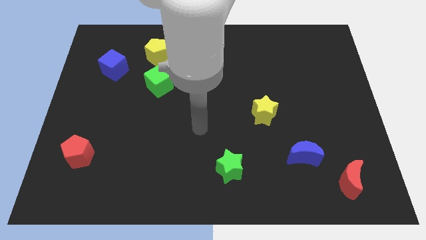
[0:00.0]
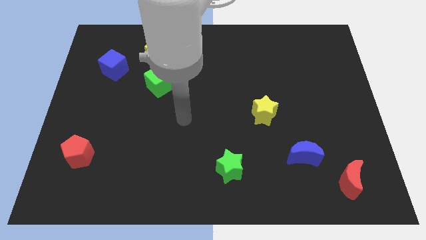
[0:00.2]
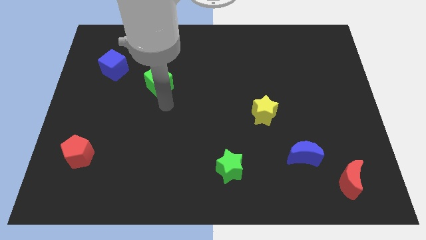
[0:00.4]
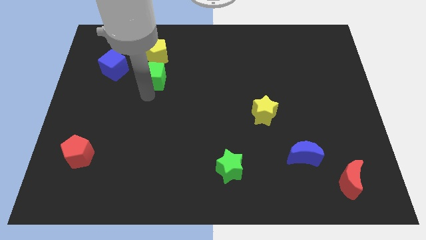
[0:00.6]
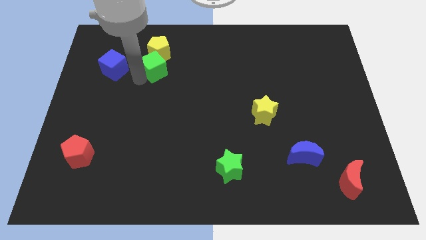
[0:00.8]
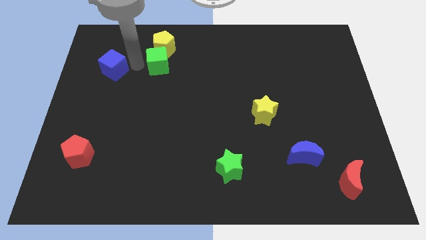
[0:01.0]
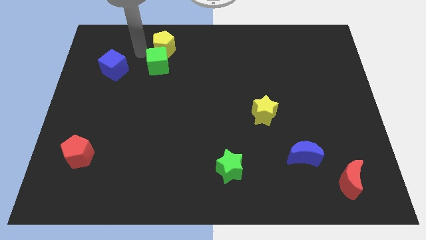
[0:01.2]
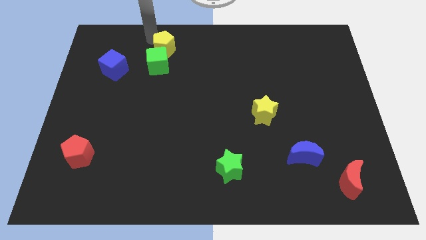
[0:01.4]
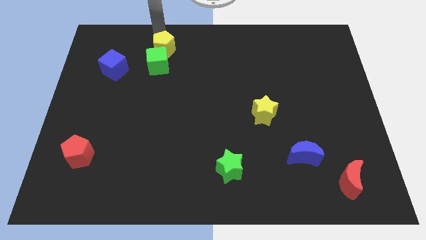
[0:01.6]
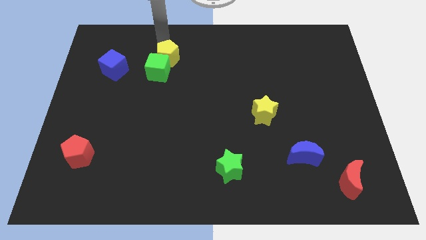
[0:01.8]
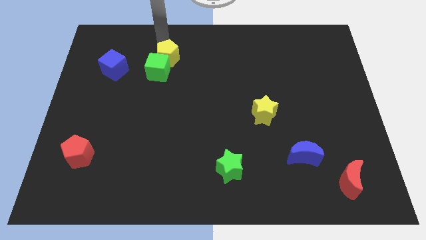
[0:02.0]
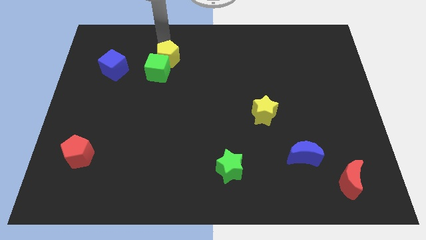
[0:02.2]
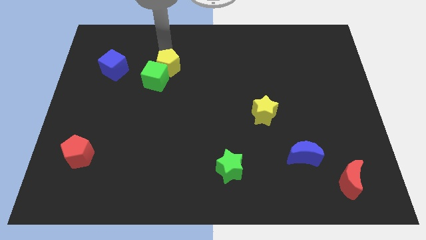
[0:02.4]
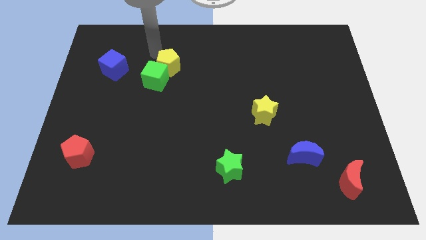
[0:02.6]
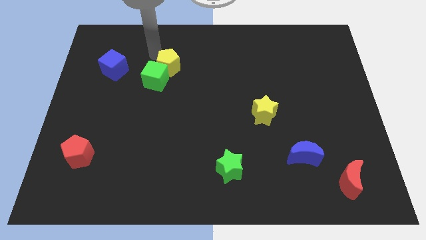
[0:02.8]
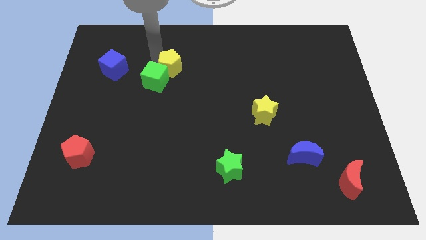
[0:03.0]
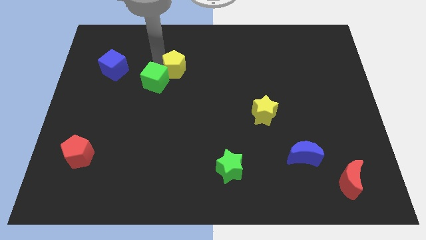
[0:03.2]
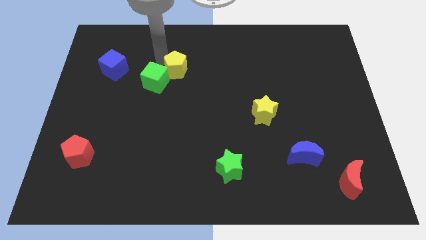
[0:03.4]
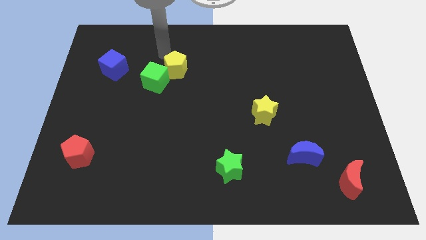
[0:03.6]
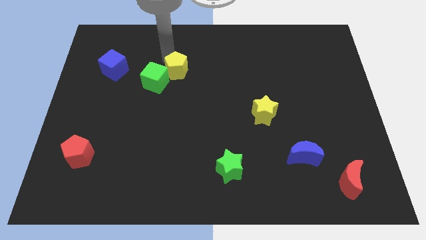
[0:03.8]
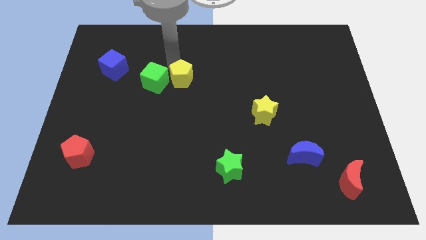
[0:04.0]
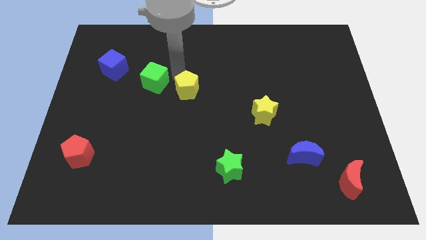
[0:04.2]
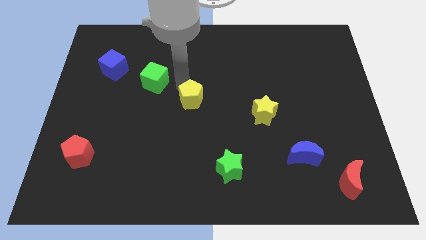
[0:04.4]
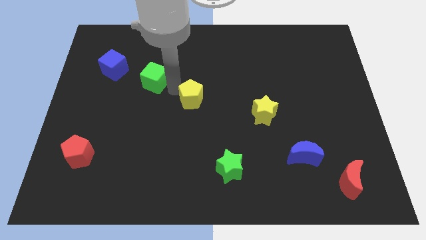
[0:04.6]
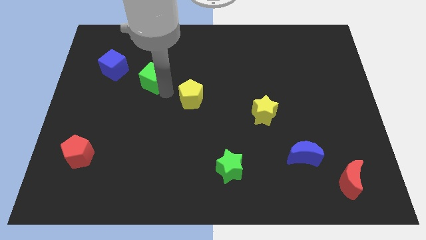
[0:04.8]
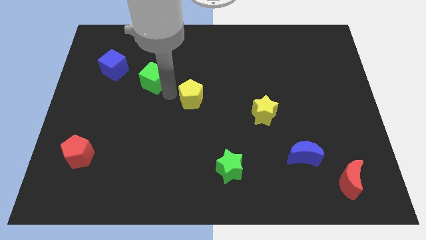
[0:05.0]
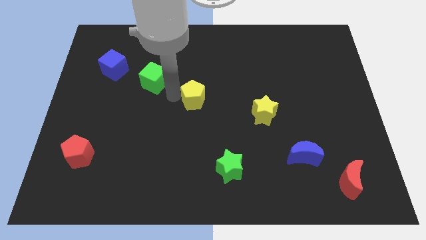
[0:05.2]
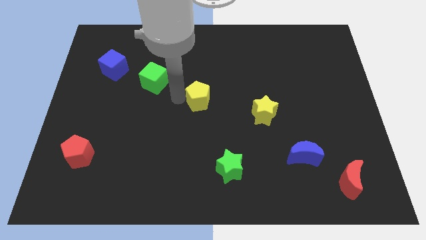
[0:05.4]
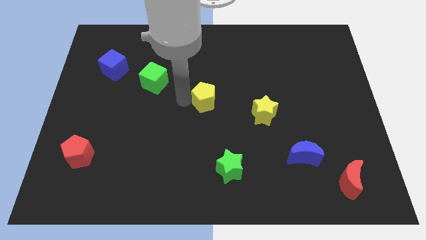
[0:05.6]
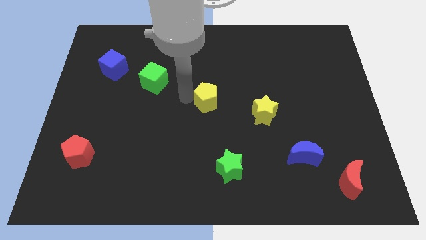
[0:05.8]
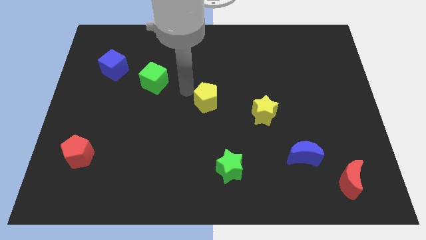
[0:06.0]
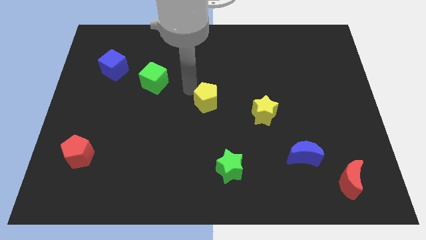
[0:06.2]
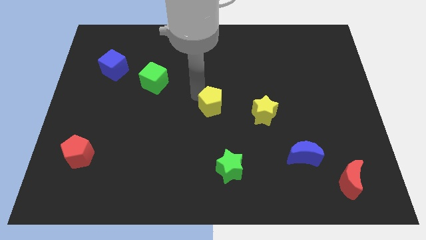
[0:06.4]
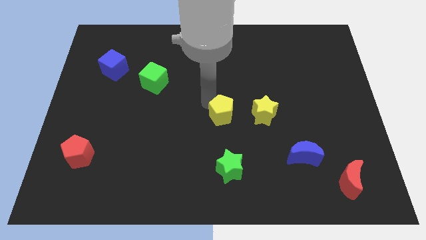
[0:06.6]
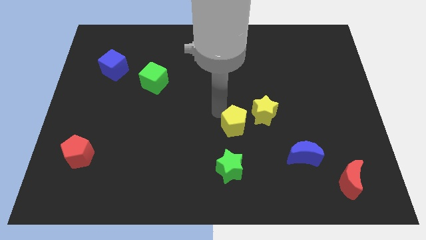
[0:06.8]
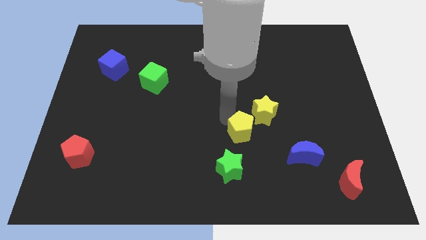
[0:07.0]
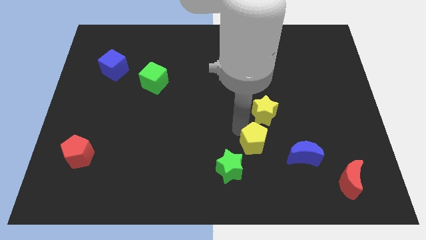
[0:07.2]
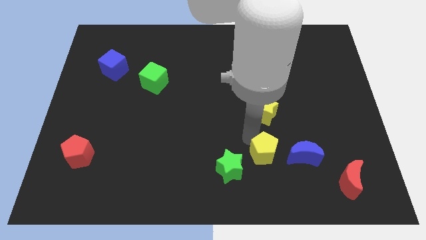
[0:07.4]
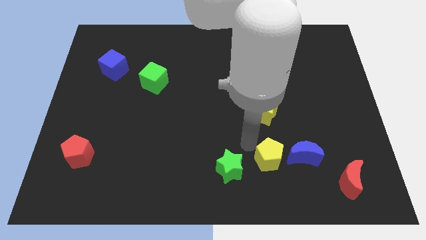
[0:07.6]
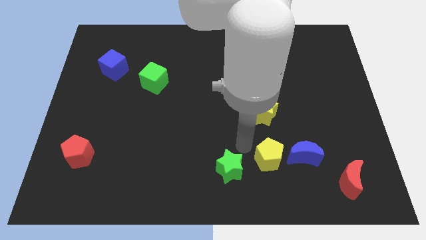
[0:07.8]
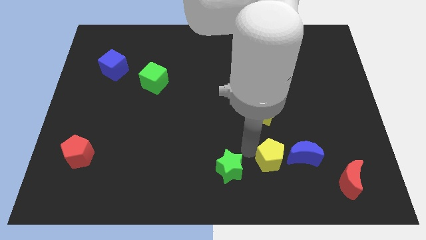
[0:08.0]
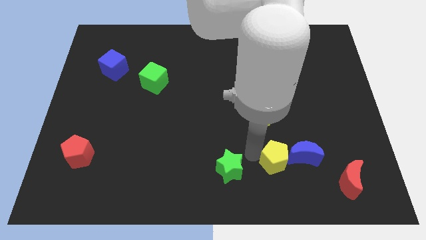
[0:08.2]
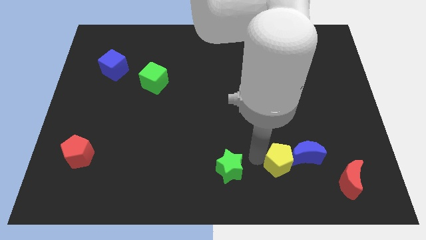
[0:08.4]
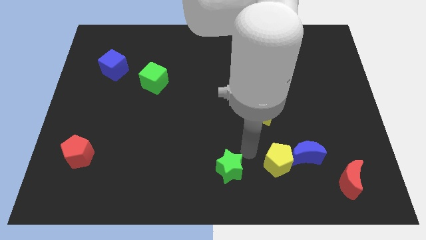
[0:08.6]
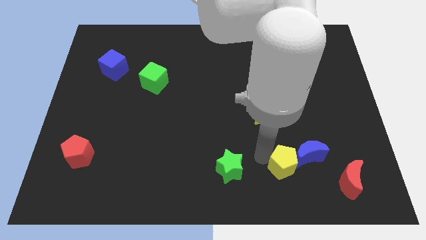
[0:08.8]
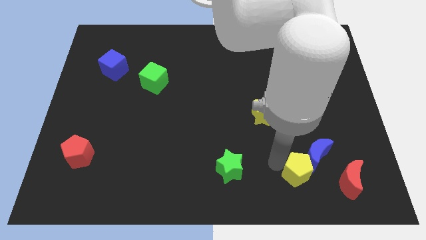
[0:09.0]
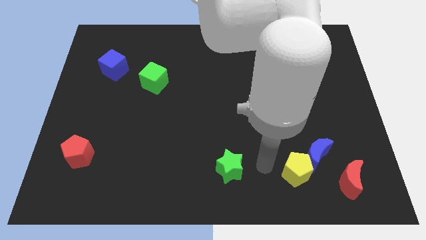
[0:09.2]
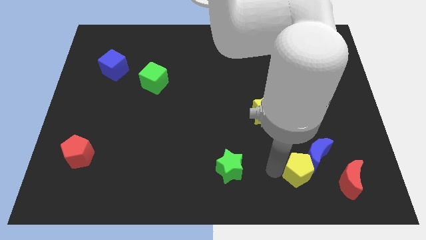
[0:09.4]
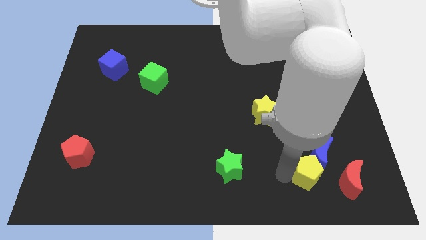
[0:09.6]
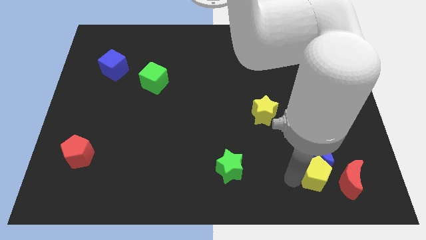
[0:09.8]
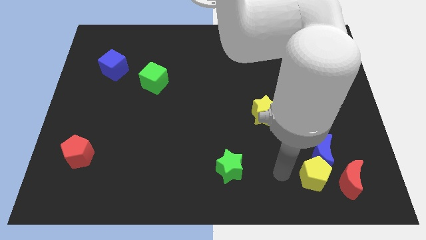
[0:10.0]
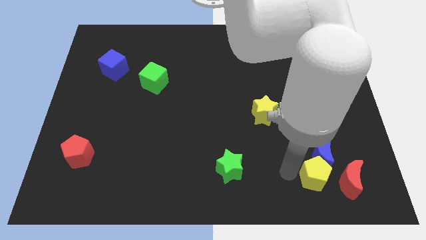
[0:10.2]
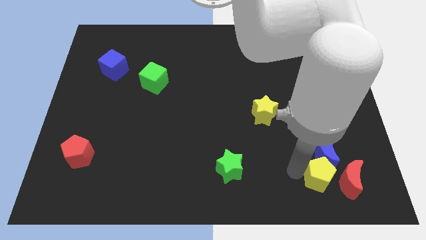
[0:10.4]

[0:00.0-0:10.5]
move the yellow pentagon to the red moon

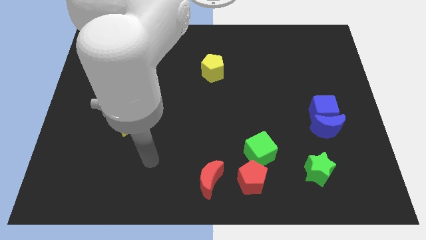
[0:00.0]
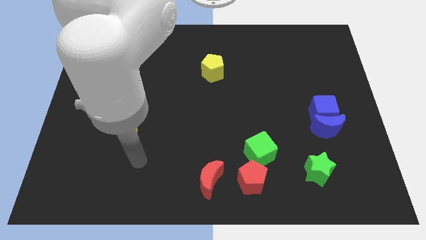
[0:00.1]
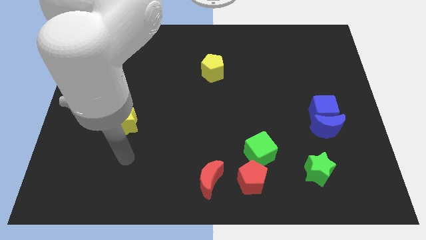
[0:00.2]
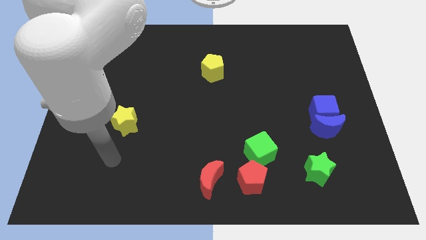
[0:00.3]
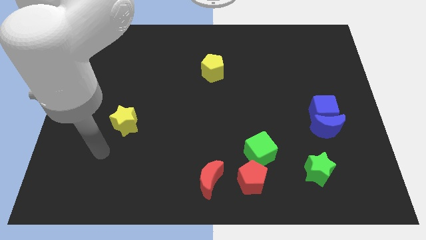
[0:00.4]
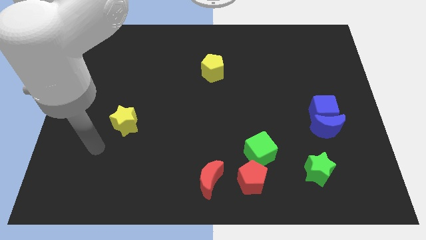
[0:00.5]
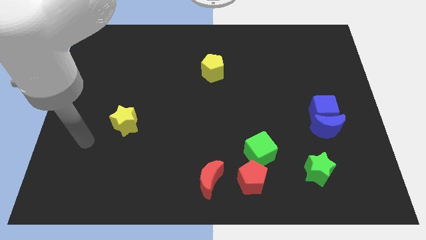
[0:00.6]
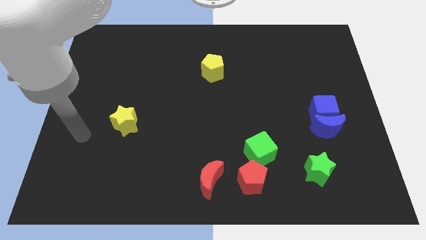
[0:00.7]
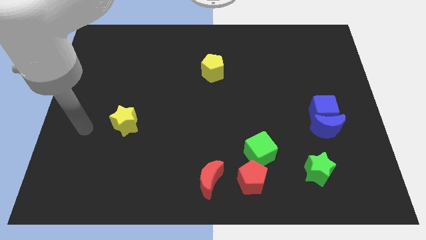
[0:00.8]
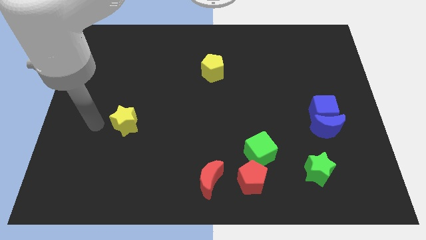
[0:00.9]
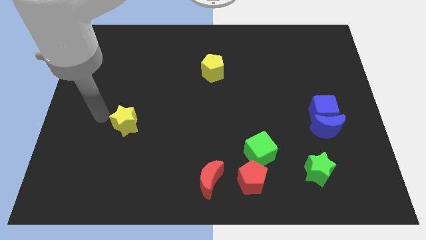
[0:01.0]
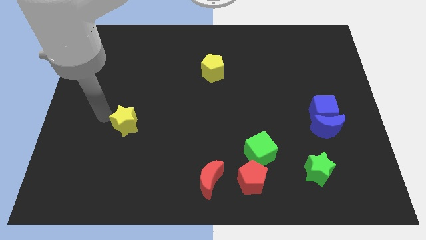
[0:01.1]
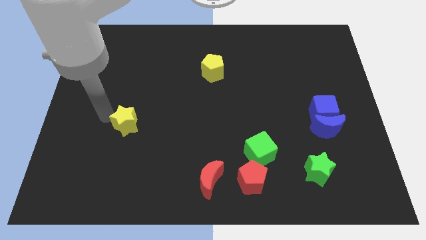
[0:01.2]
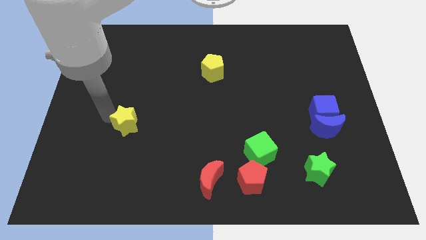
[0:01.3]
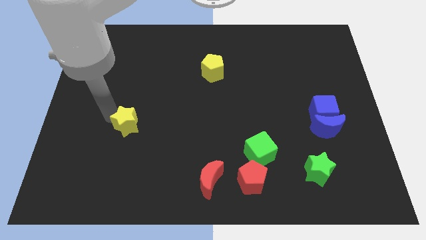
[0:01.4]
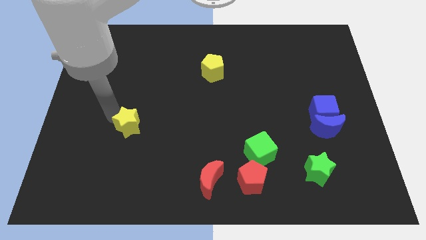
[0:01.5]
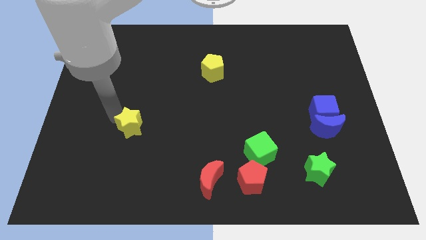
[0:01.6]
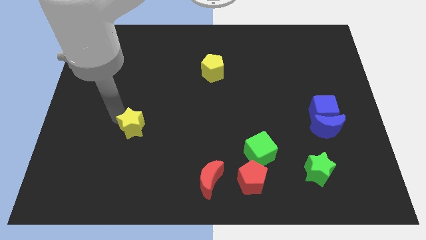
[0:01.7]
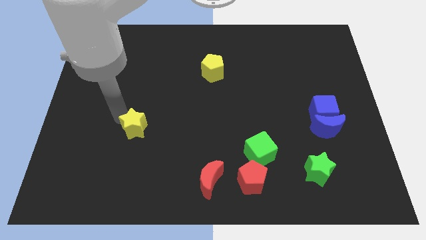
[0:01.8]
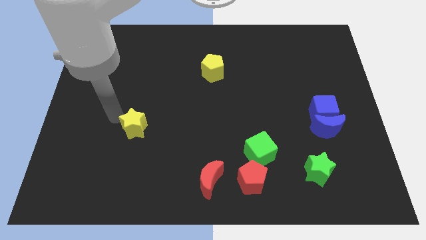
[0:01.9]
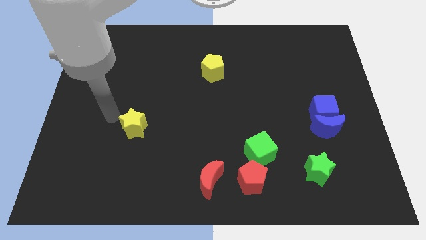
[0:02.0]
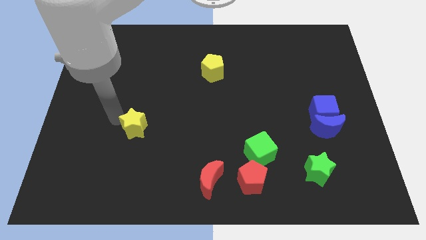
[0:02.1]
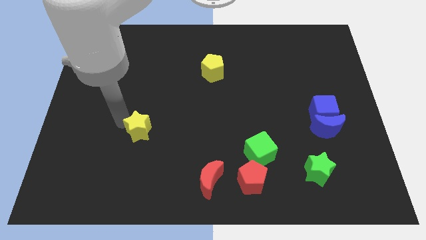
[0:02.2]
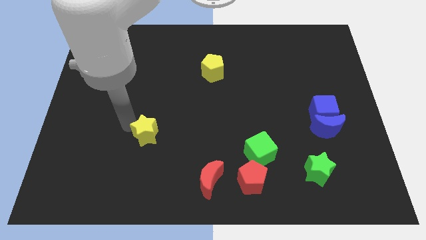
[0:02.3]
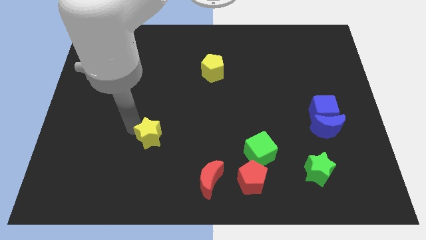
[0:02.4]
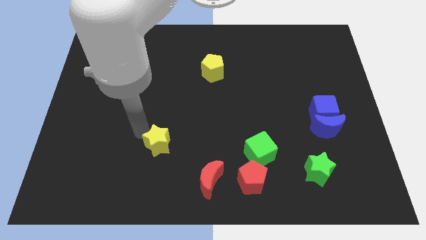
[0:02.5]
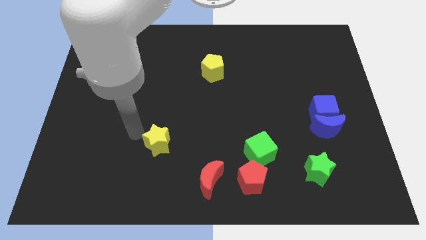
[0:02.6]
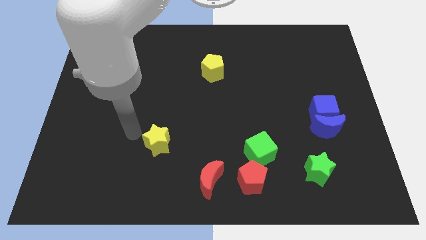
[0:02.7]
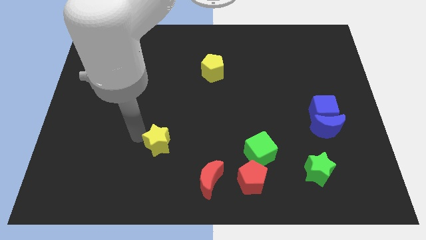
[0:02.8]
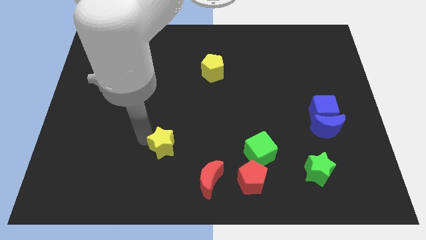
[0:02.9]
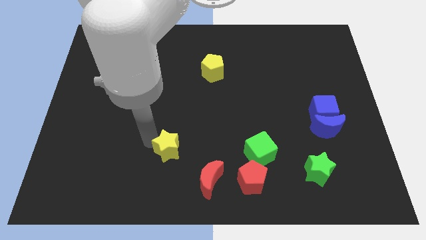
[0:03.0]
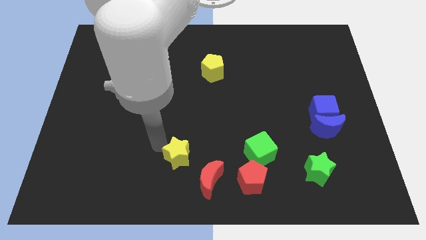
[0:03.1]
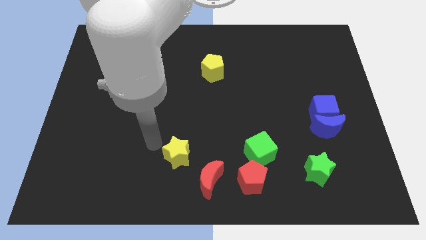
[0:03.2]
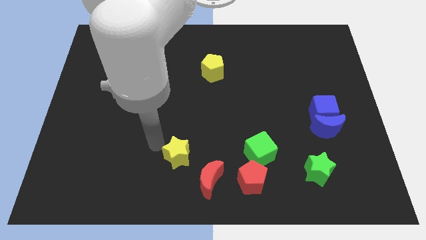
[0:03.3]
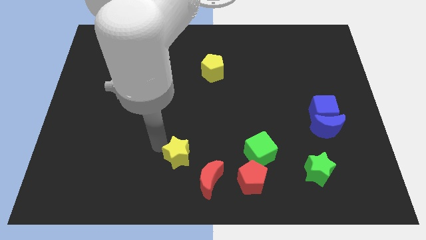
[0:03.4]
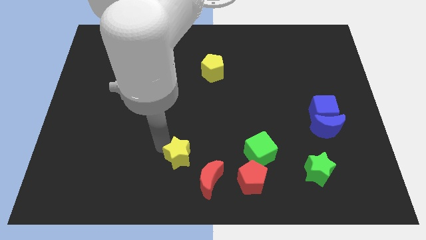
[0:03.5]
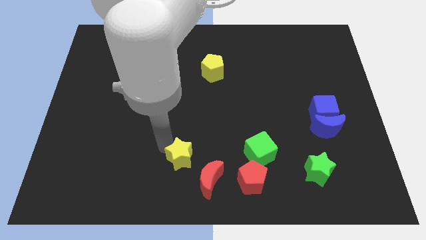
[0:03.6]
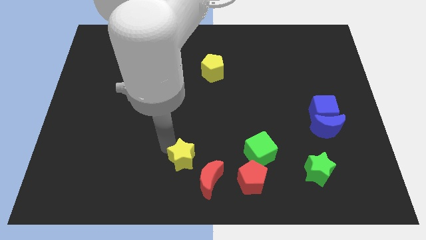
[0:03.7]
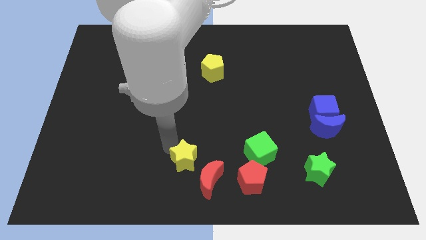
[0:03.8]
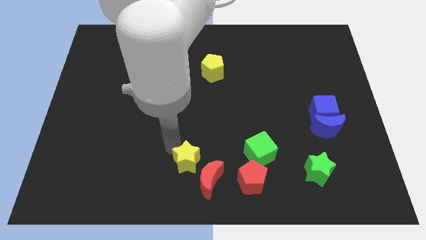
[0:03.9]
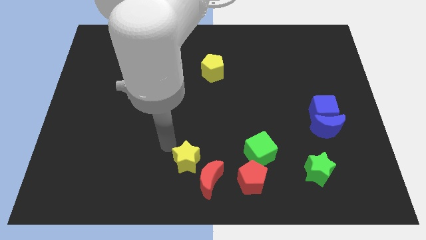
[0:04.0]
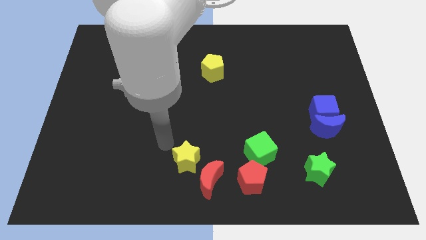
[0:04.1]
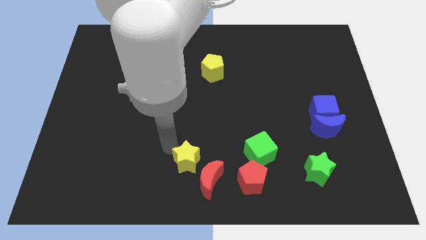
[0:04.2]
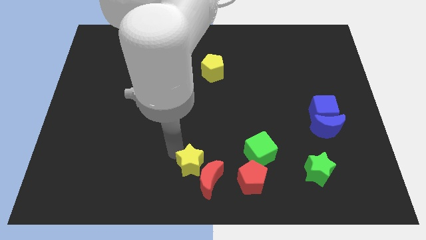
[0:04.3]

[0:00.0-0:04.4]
put the yellow star next to the red moon
